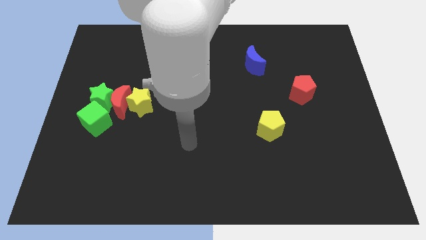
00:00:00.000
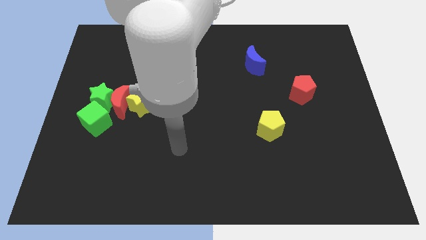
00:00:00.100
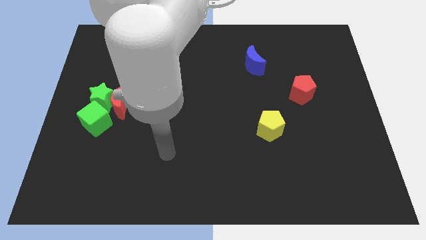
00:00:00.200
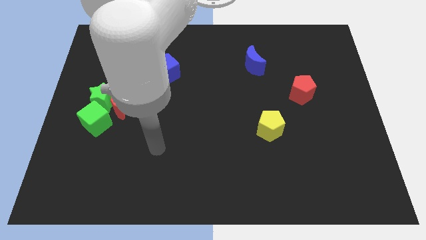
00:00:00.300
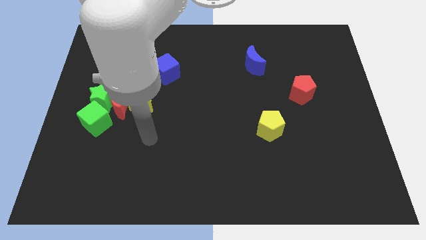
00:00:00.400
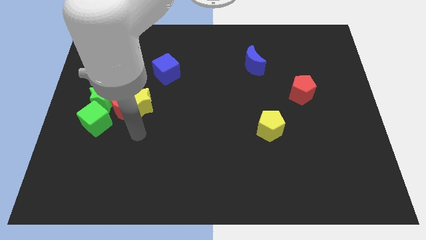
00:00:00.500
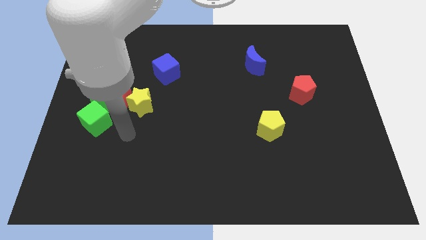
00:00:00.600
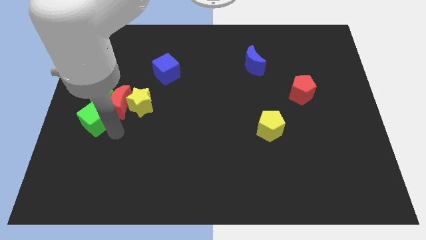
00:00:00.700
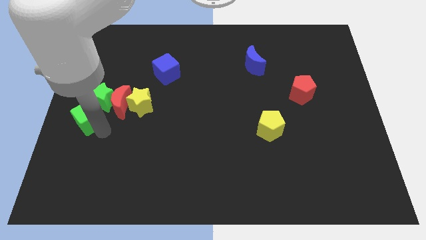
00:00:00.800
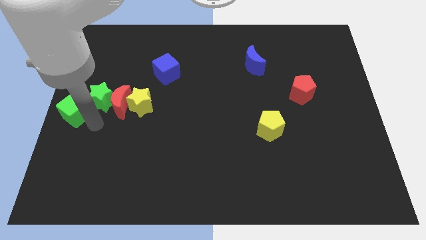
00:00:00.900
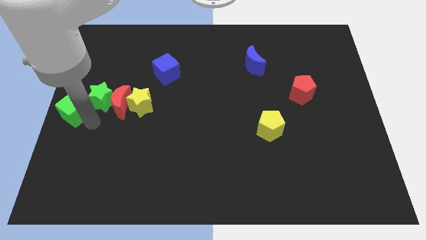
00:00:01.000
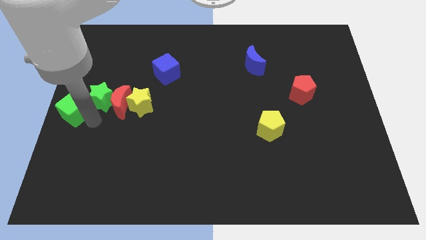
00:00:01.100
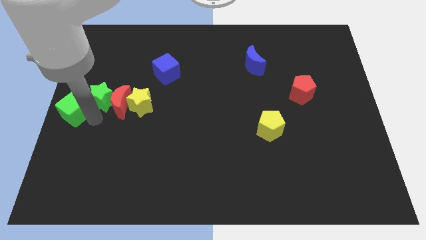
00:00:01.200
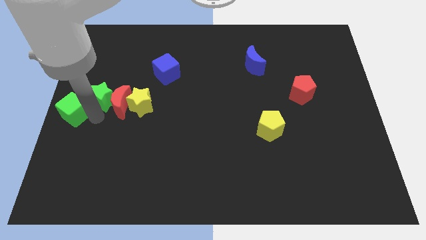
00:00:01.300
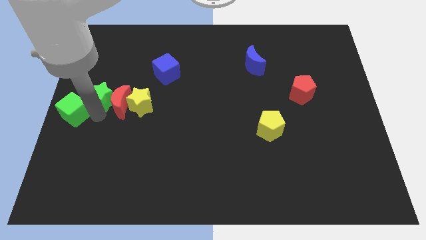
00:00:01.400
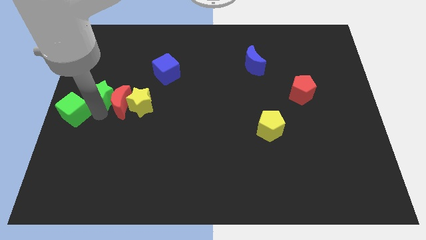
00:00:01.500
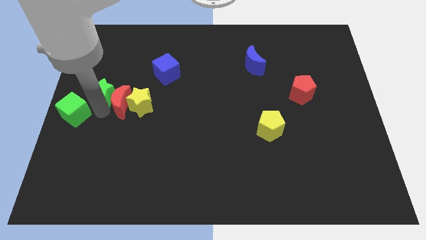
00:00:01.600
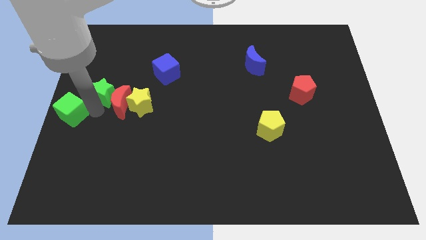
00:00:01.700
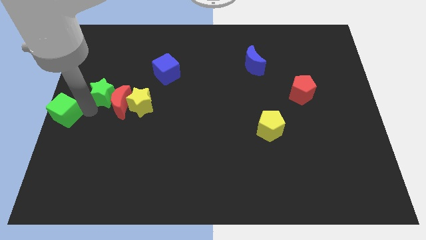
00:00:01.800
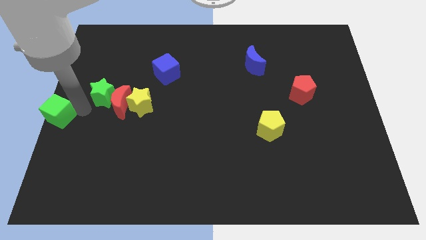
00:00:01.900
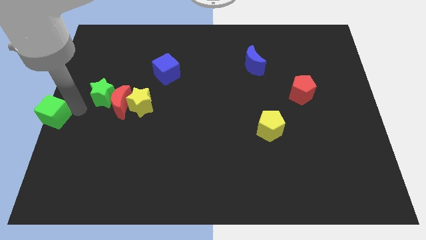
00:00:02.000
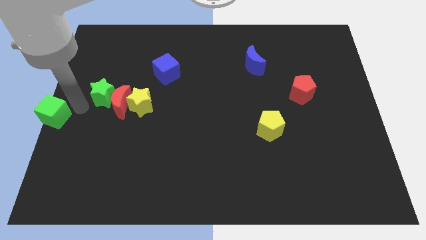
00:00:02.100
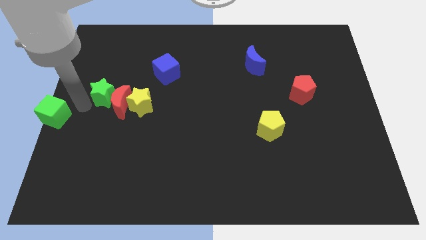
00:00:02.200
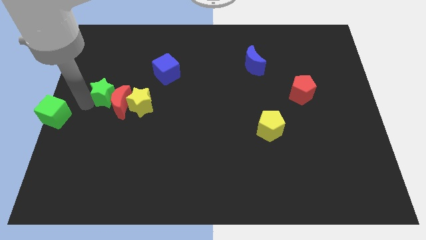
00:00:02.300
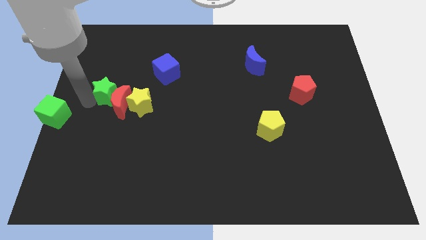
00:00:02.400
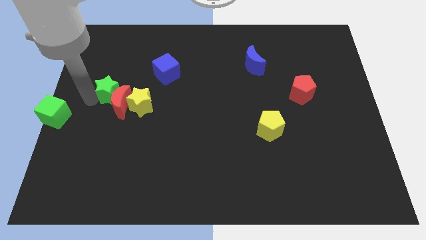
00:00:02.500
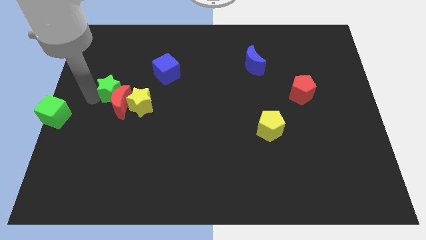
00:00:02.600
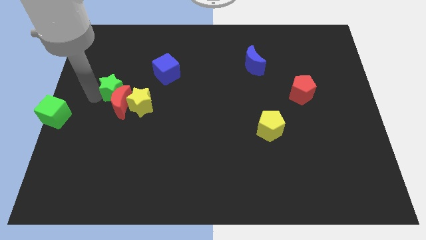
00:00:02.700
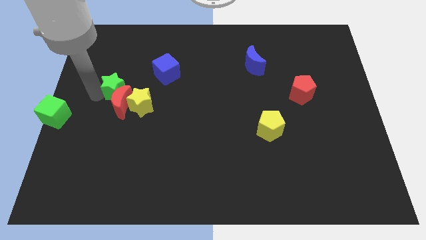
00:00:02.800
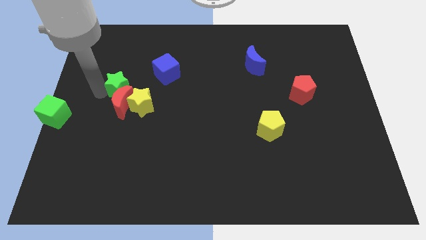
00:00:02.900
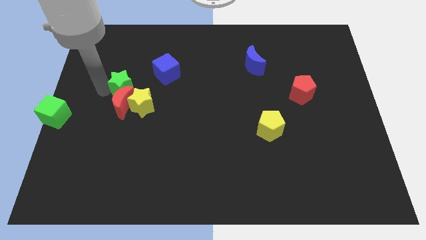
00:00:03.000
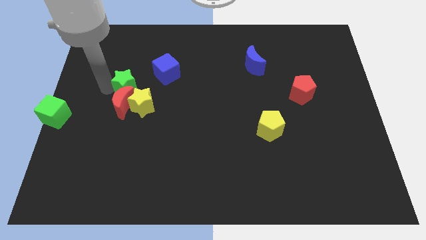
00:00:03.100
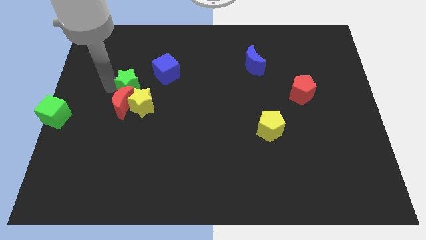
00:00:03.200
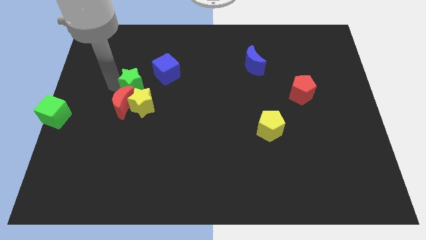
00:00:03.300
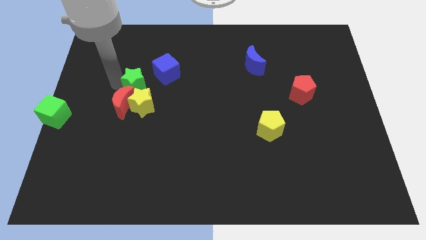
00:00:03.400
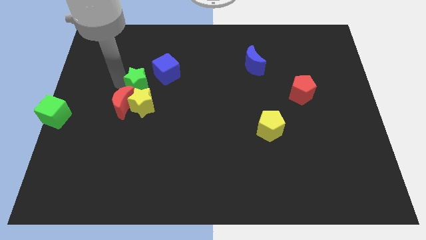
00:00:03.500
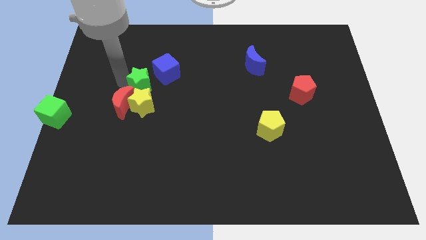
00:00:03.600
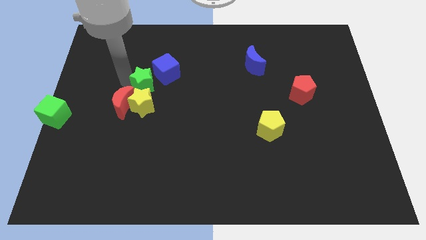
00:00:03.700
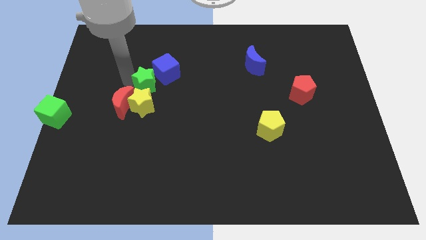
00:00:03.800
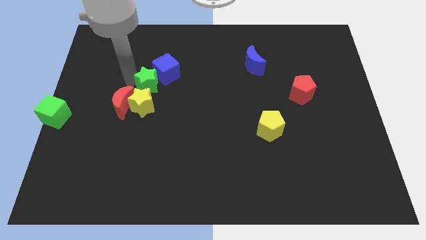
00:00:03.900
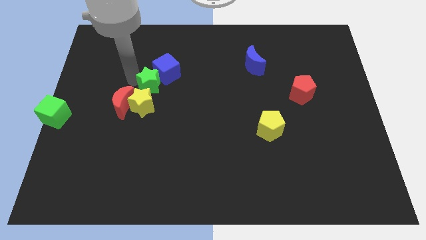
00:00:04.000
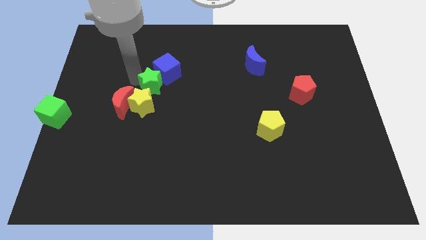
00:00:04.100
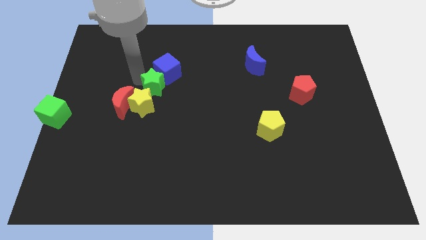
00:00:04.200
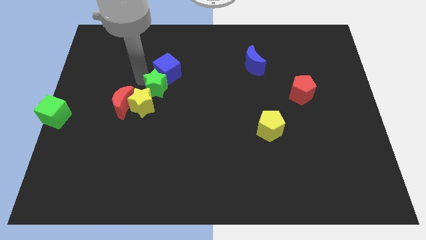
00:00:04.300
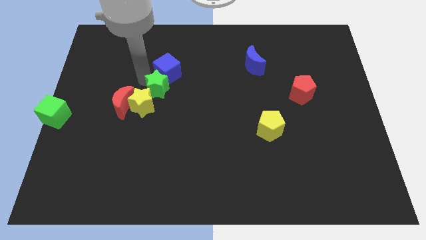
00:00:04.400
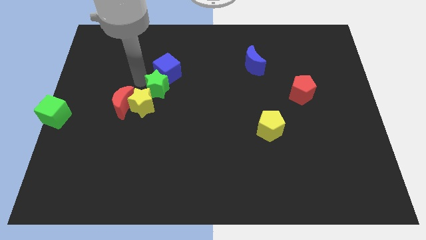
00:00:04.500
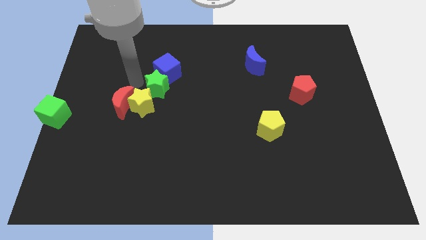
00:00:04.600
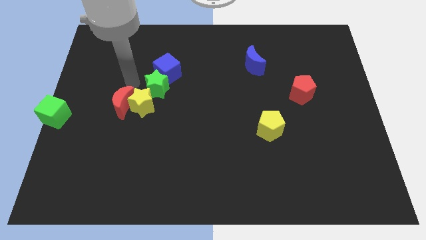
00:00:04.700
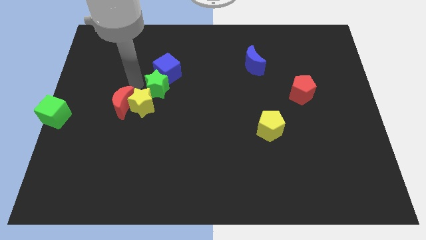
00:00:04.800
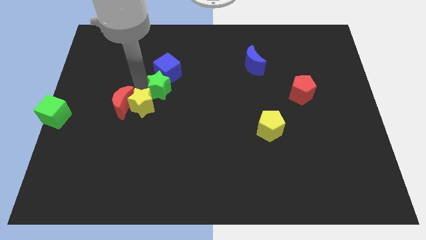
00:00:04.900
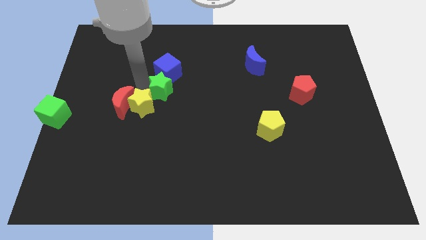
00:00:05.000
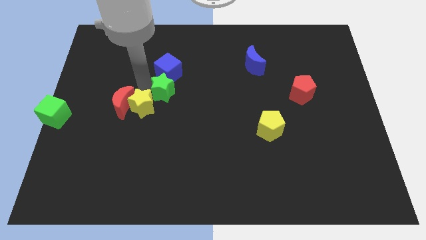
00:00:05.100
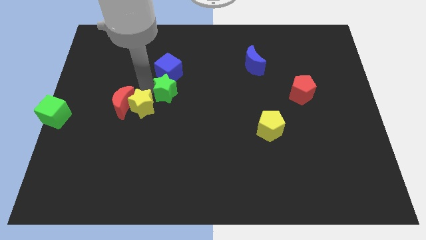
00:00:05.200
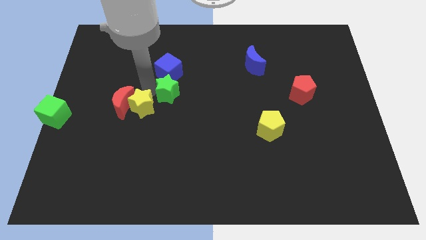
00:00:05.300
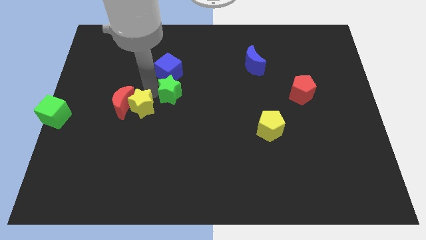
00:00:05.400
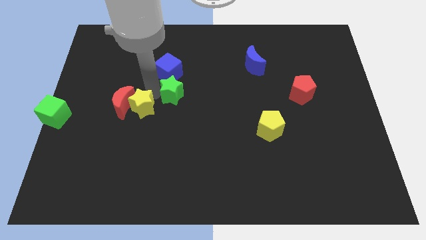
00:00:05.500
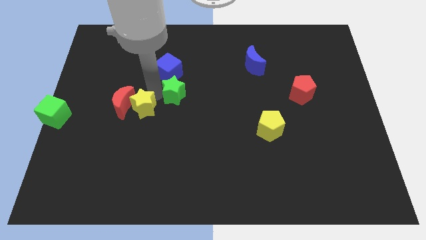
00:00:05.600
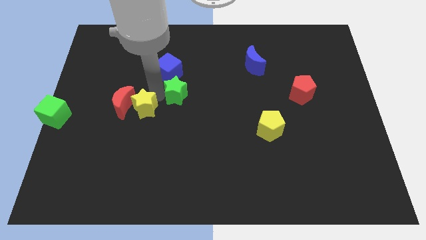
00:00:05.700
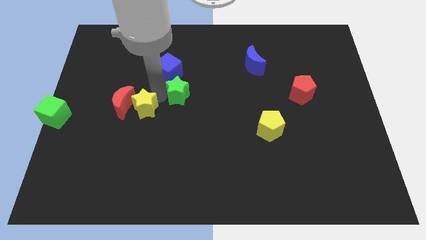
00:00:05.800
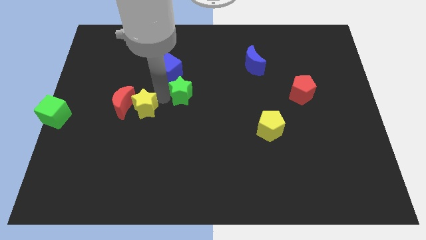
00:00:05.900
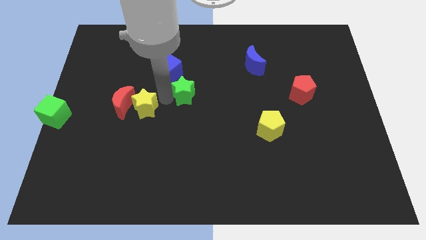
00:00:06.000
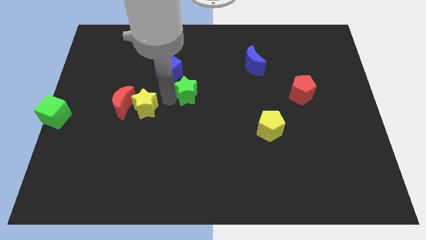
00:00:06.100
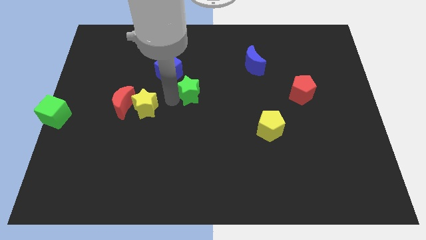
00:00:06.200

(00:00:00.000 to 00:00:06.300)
move the green star right

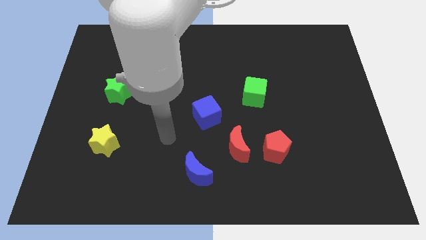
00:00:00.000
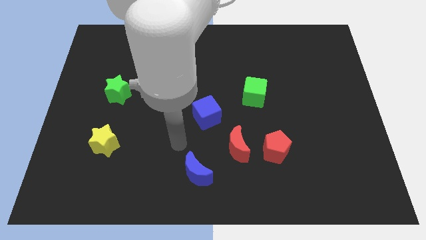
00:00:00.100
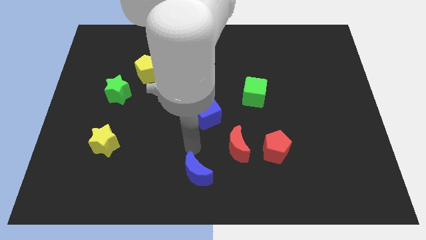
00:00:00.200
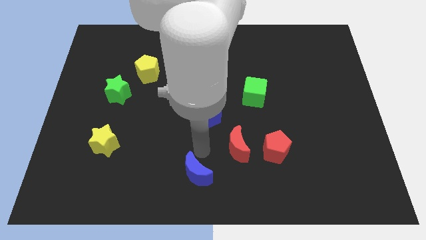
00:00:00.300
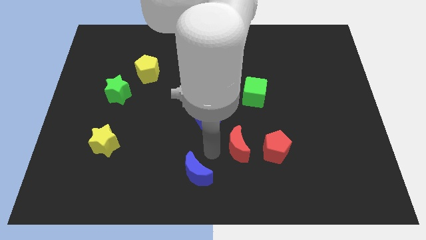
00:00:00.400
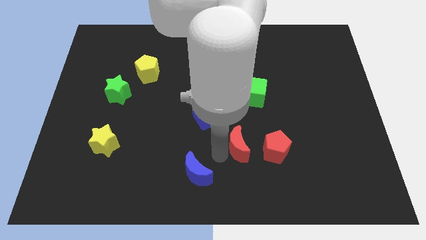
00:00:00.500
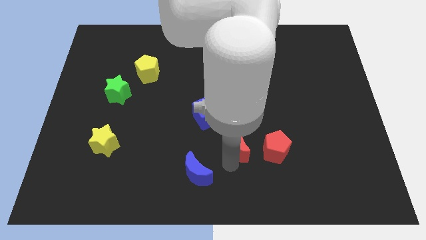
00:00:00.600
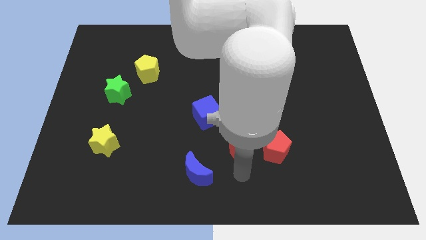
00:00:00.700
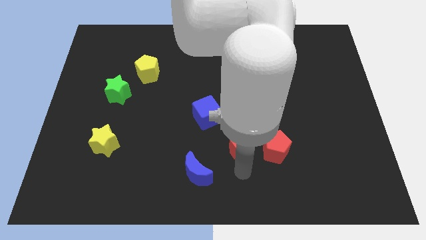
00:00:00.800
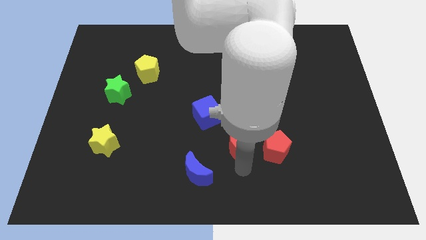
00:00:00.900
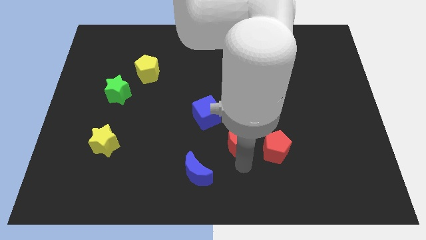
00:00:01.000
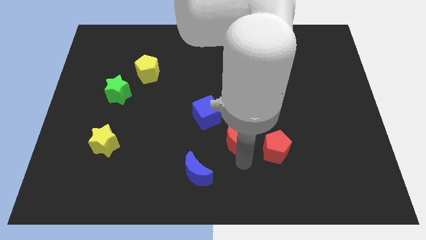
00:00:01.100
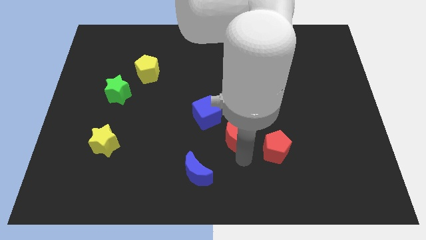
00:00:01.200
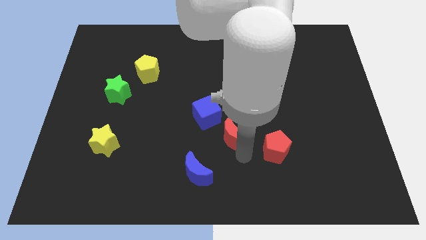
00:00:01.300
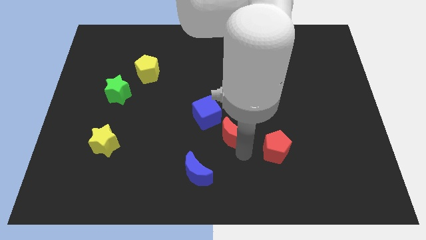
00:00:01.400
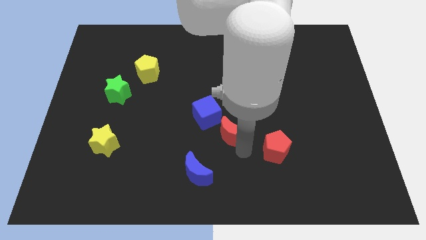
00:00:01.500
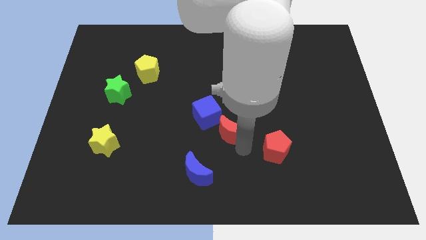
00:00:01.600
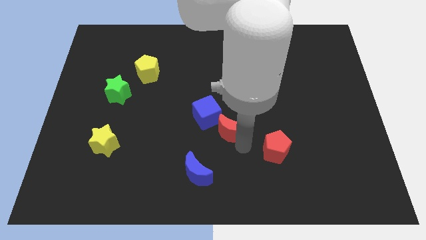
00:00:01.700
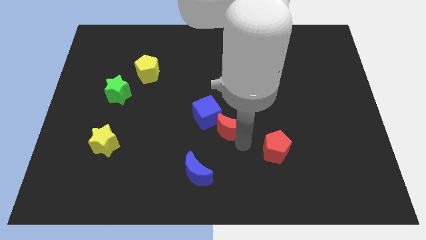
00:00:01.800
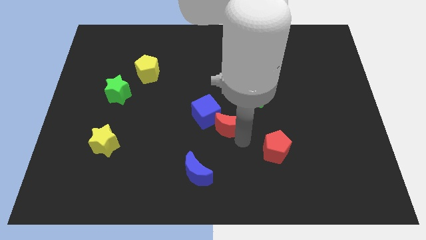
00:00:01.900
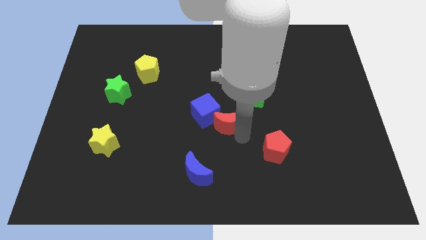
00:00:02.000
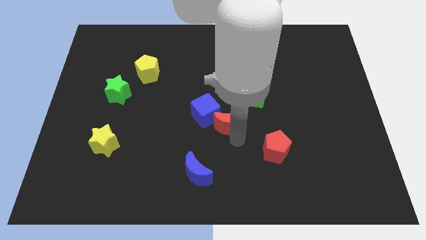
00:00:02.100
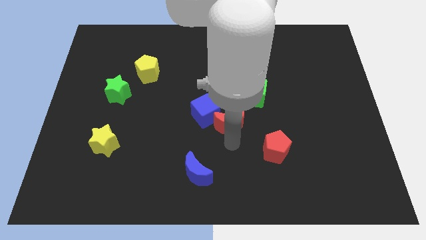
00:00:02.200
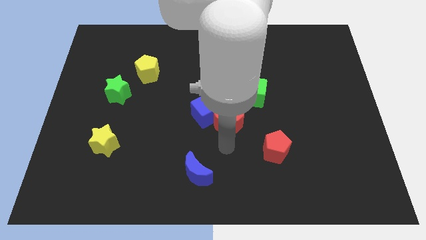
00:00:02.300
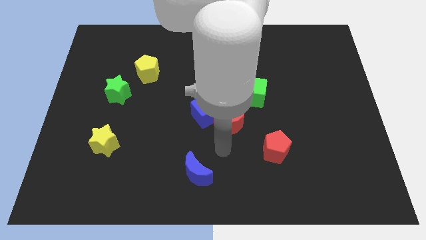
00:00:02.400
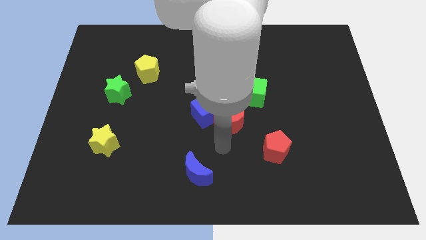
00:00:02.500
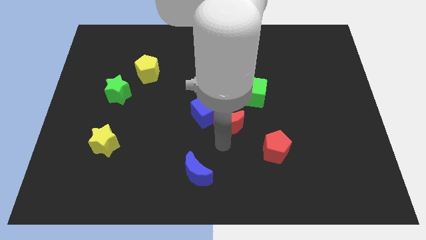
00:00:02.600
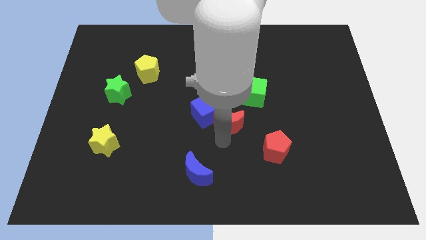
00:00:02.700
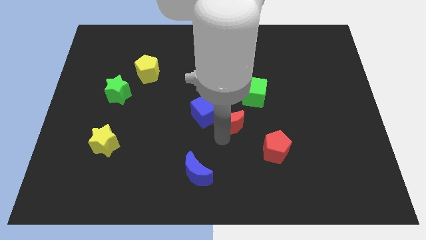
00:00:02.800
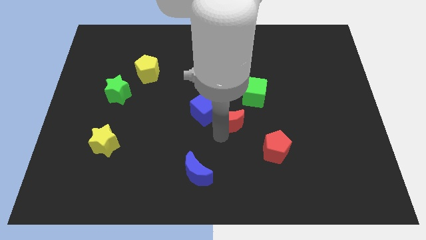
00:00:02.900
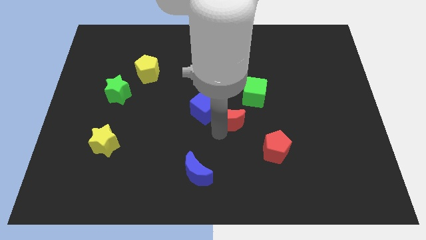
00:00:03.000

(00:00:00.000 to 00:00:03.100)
slide the red moon up a little bit
